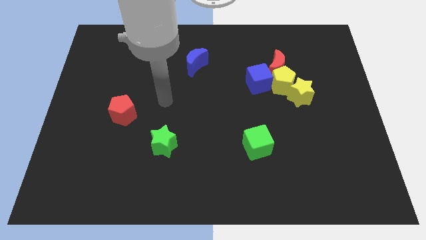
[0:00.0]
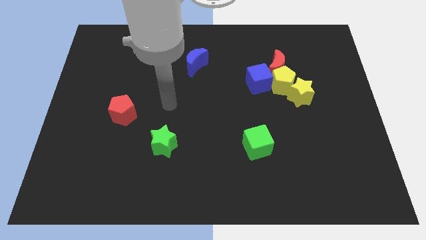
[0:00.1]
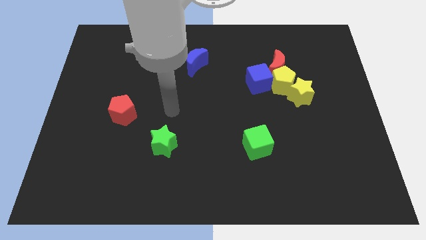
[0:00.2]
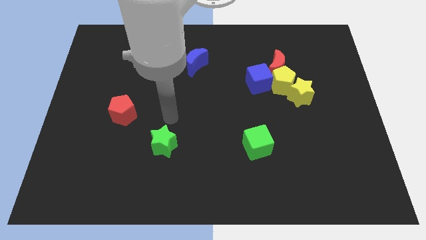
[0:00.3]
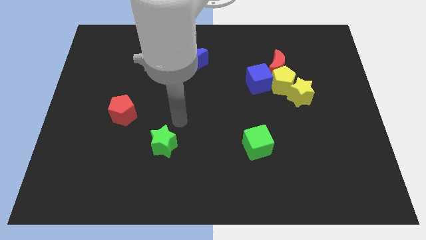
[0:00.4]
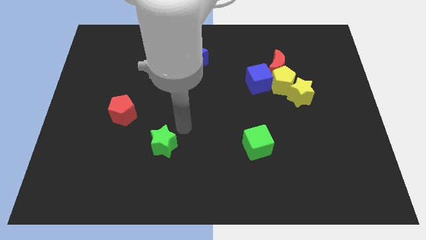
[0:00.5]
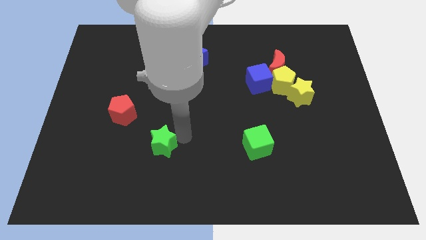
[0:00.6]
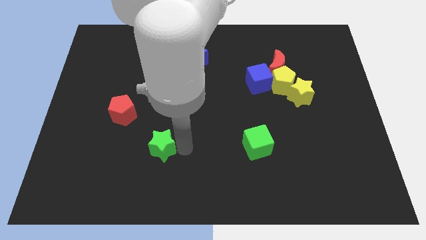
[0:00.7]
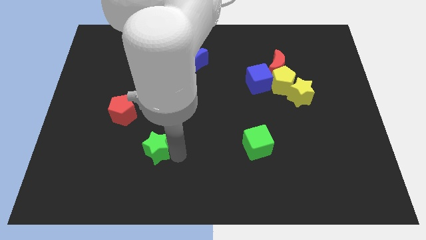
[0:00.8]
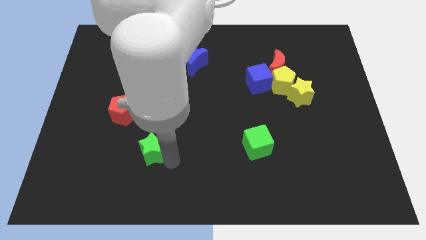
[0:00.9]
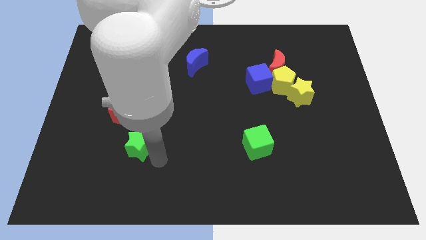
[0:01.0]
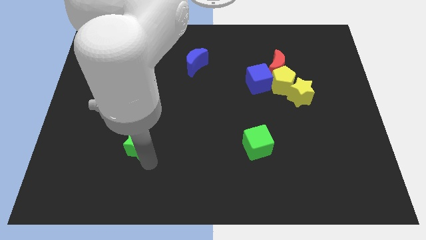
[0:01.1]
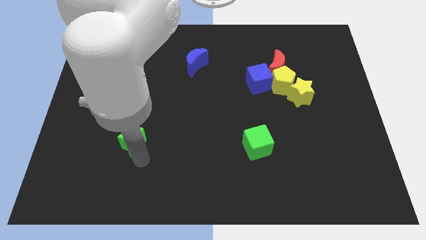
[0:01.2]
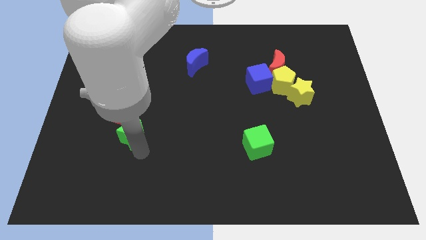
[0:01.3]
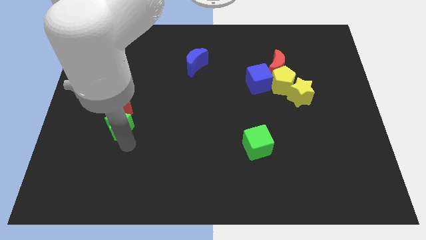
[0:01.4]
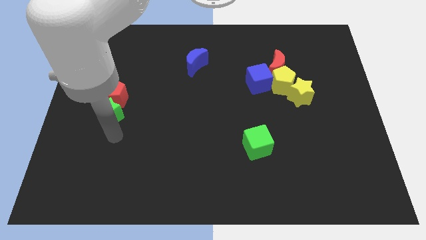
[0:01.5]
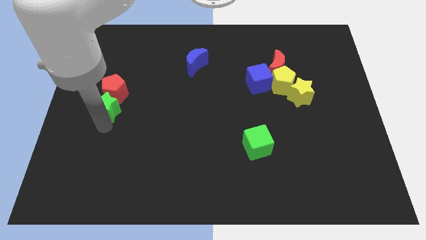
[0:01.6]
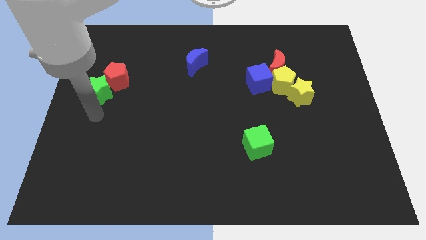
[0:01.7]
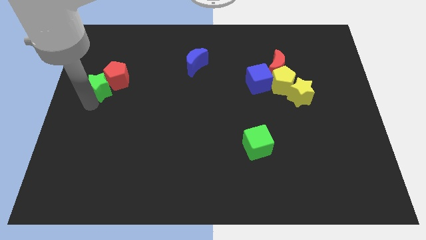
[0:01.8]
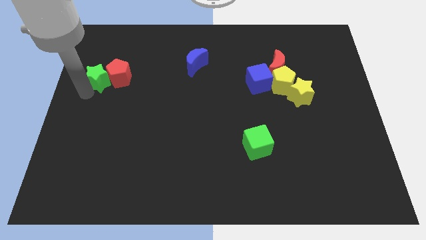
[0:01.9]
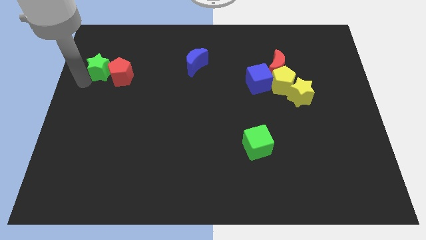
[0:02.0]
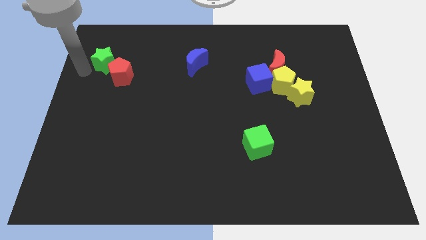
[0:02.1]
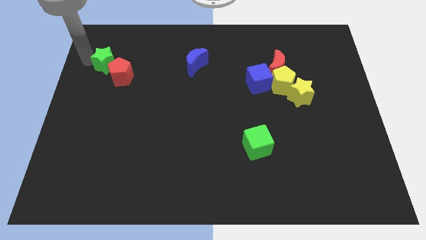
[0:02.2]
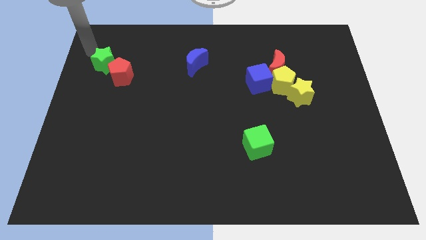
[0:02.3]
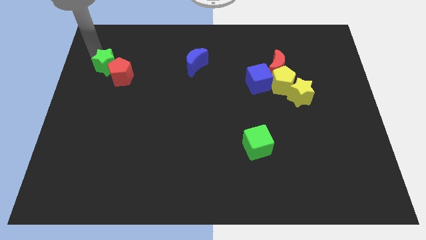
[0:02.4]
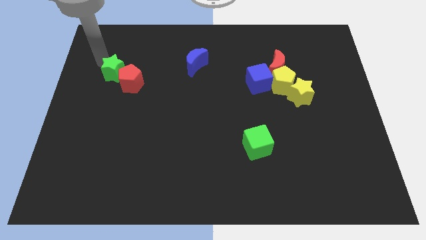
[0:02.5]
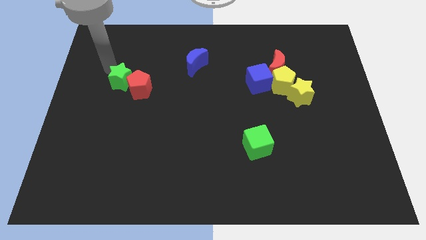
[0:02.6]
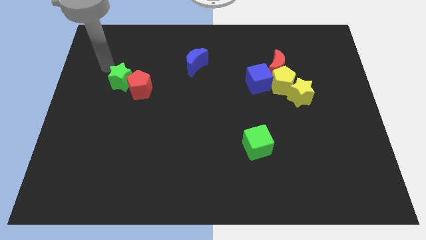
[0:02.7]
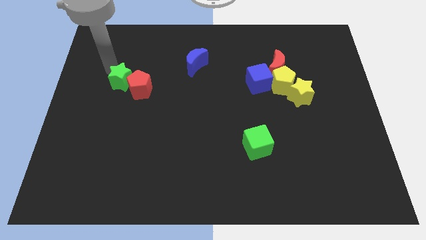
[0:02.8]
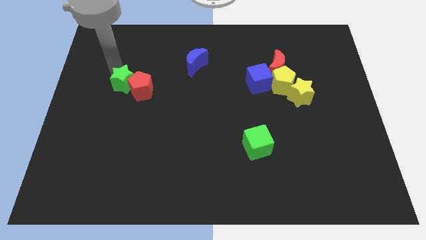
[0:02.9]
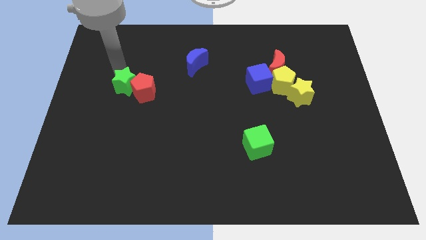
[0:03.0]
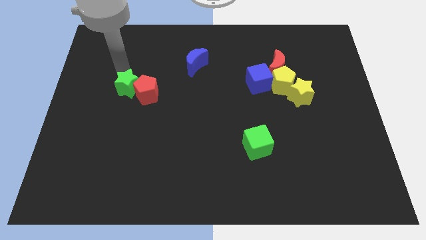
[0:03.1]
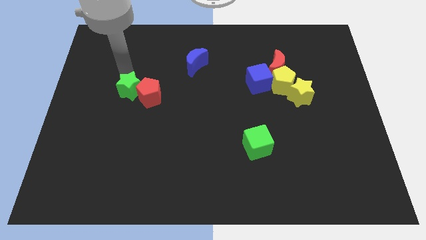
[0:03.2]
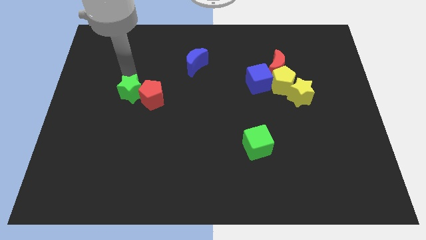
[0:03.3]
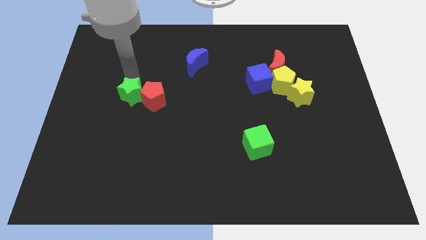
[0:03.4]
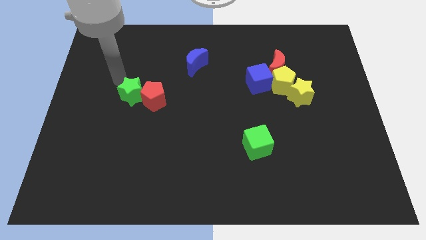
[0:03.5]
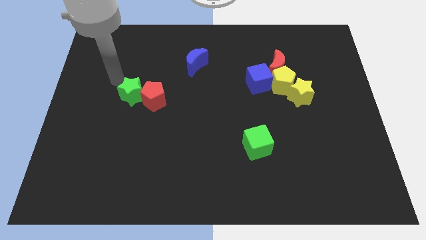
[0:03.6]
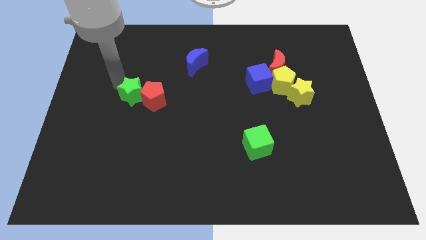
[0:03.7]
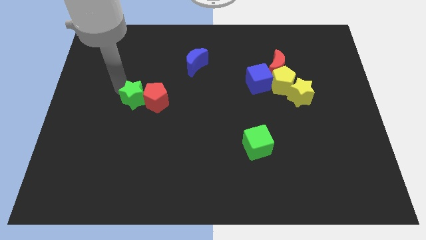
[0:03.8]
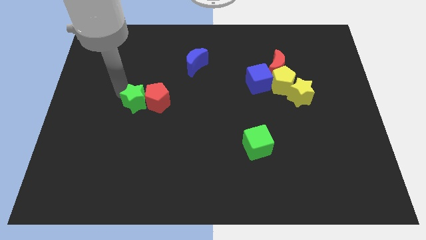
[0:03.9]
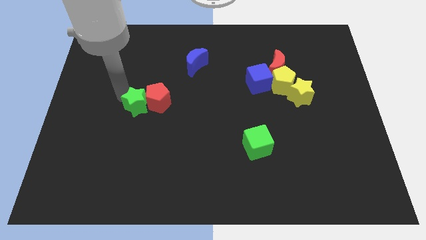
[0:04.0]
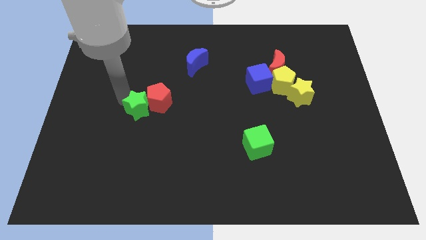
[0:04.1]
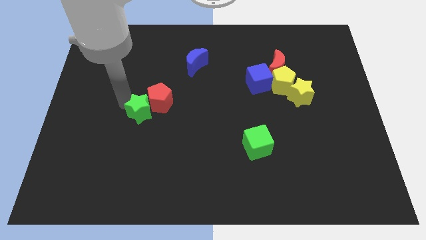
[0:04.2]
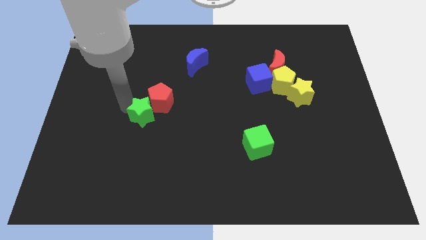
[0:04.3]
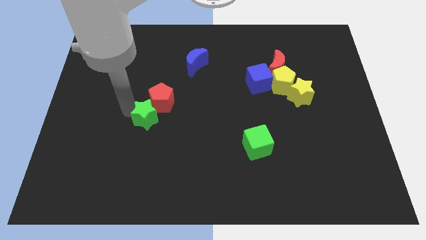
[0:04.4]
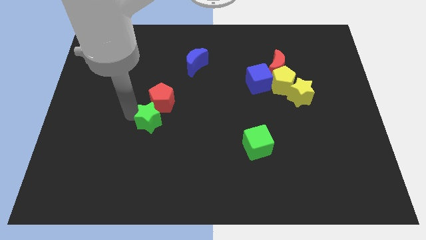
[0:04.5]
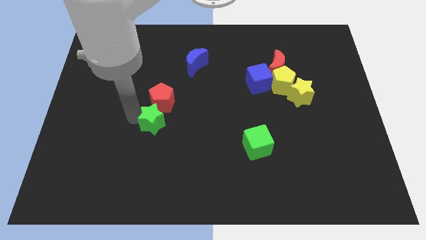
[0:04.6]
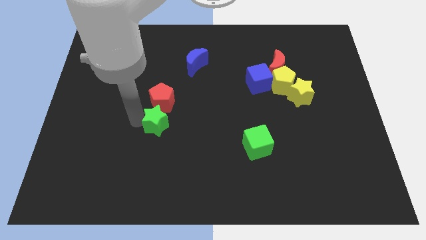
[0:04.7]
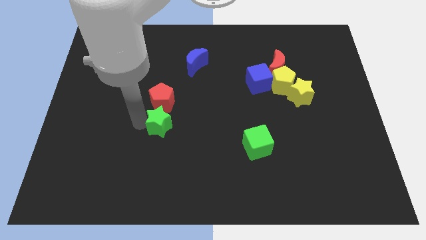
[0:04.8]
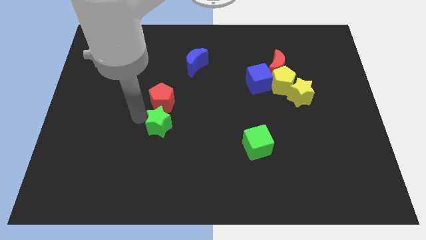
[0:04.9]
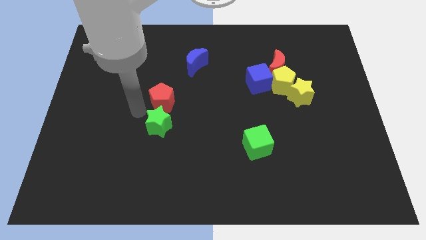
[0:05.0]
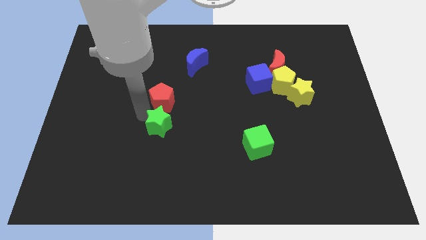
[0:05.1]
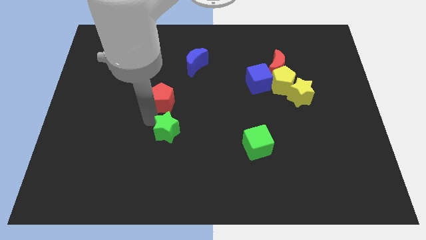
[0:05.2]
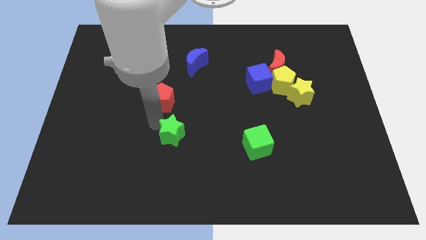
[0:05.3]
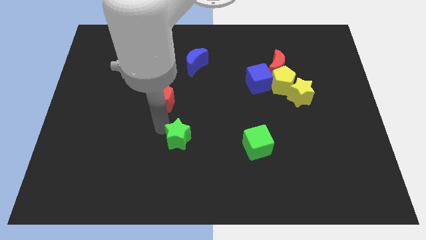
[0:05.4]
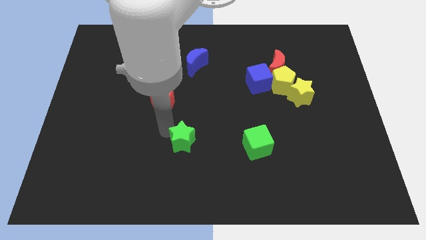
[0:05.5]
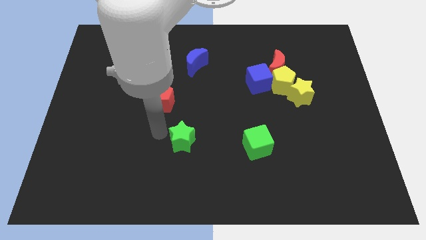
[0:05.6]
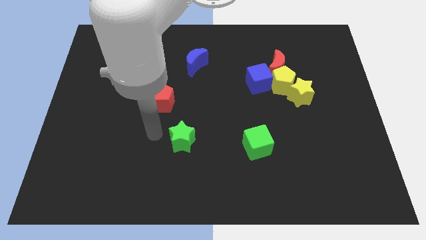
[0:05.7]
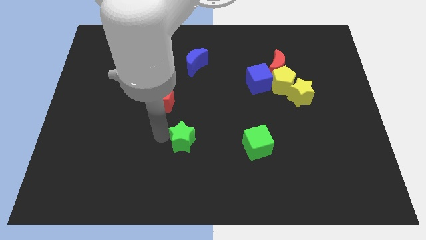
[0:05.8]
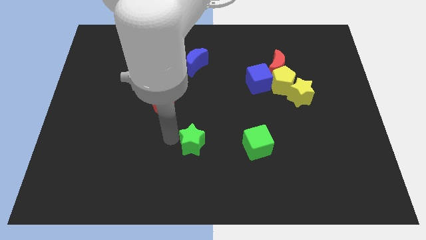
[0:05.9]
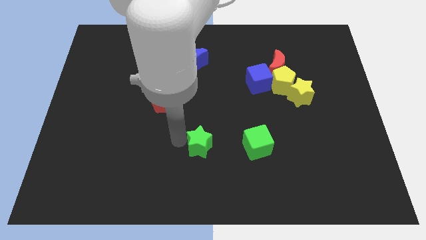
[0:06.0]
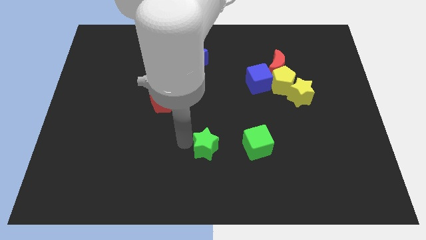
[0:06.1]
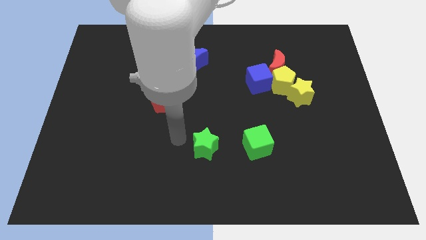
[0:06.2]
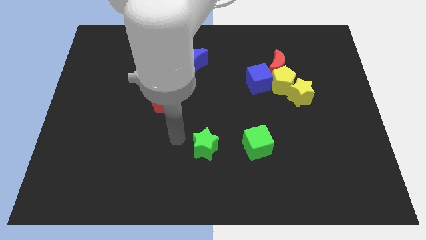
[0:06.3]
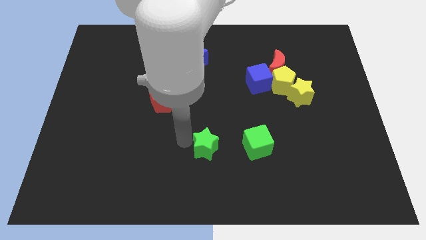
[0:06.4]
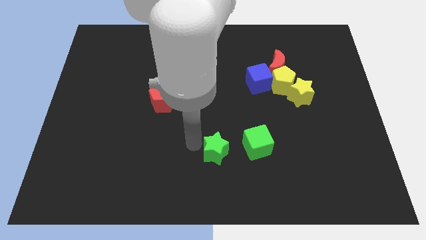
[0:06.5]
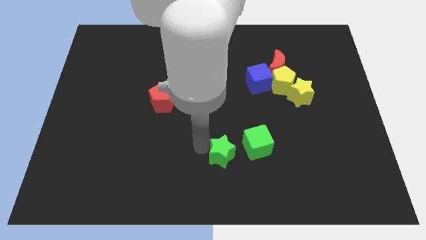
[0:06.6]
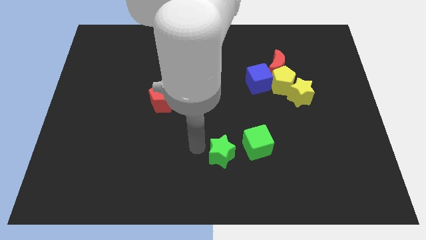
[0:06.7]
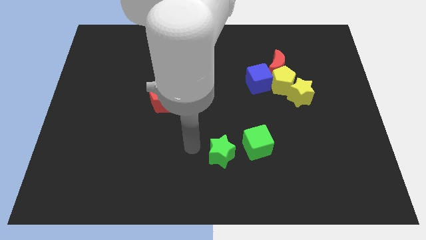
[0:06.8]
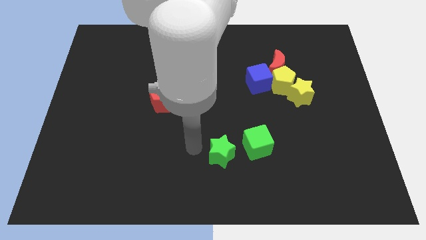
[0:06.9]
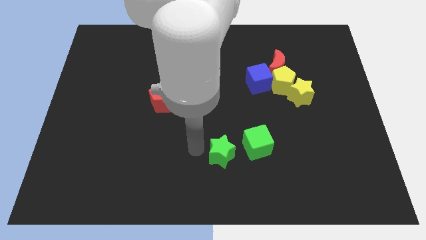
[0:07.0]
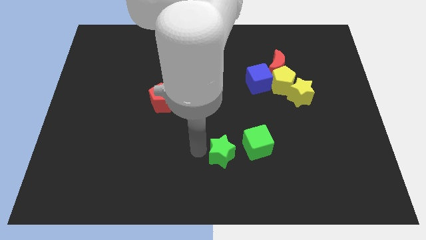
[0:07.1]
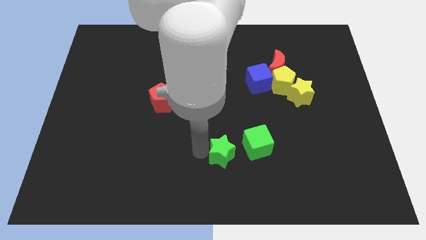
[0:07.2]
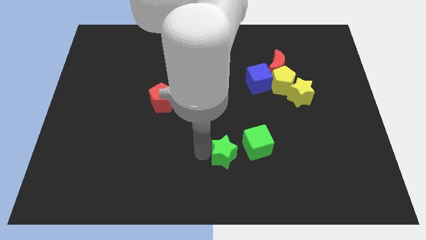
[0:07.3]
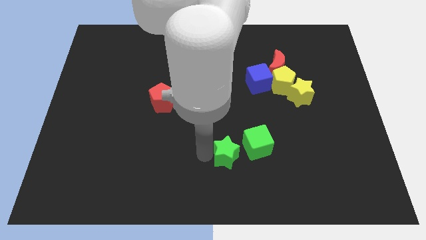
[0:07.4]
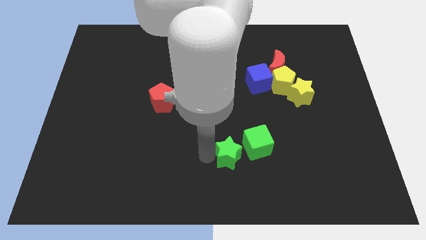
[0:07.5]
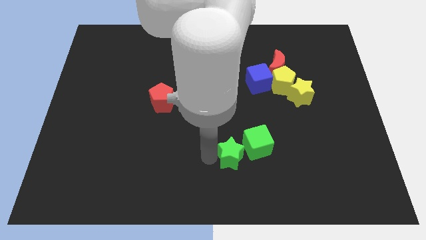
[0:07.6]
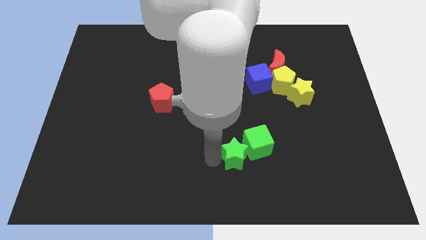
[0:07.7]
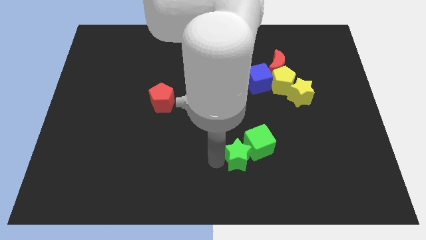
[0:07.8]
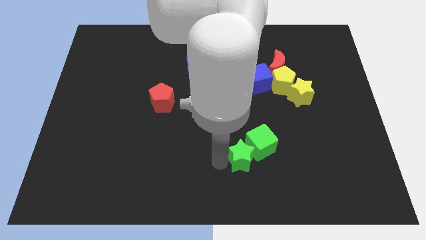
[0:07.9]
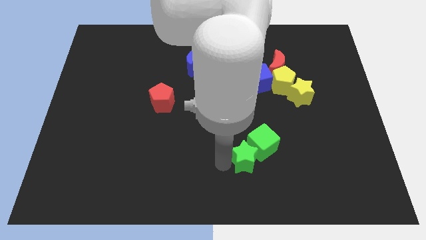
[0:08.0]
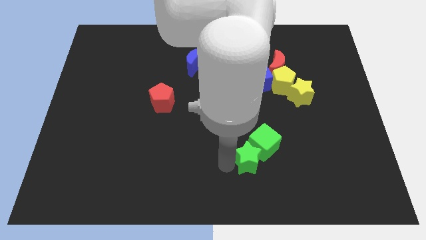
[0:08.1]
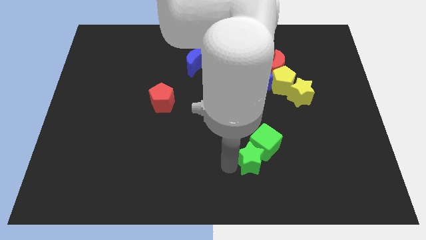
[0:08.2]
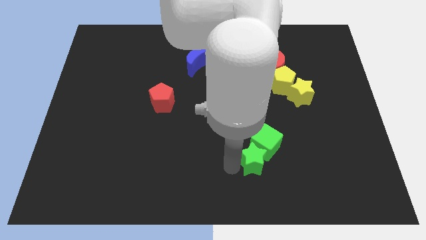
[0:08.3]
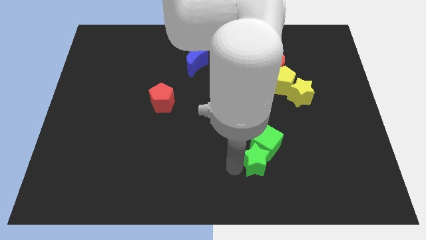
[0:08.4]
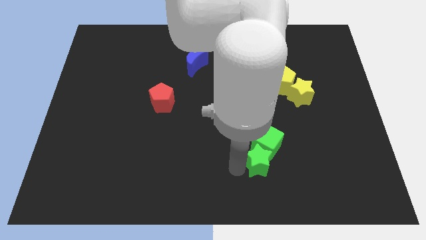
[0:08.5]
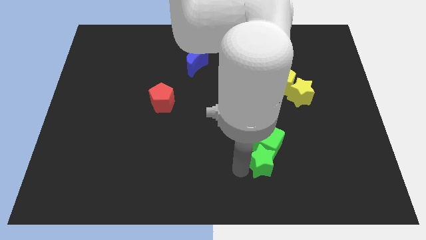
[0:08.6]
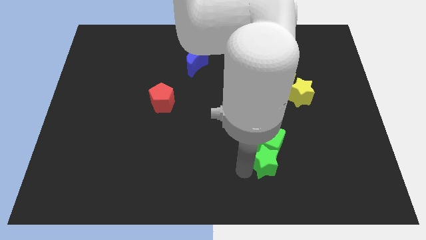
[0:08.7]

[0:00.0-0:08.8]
move the green star right
